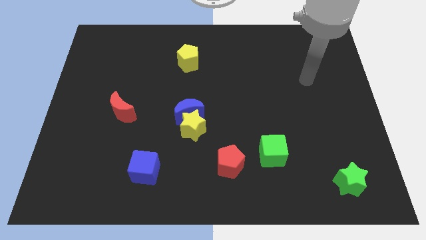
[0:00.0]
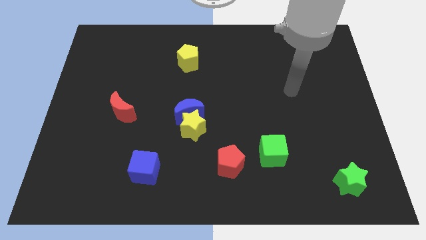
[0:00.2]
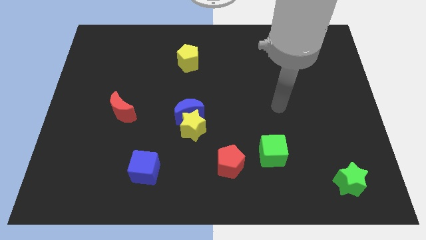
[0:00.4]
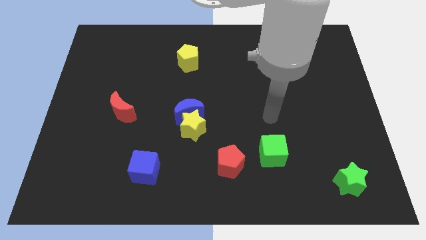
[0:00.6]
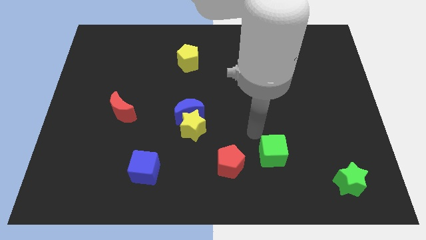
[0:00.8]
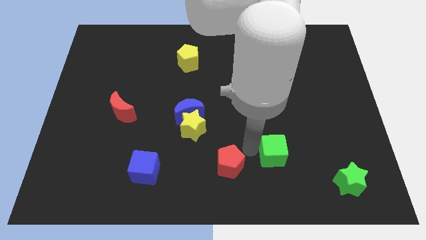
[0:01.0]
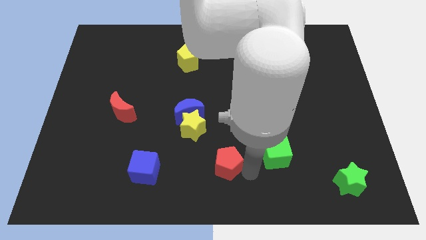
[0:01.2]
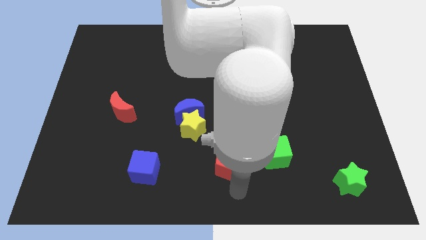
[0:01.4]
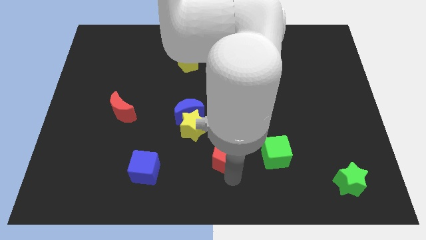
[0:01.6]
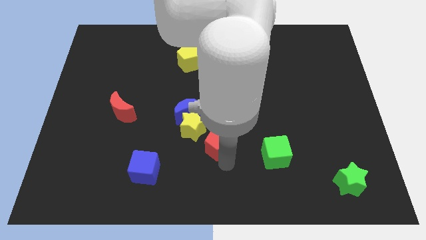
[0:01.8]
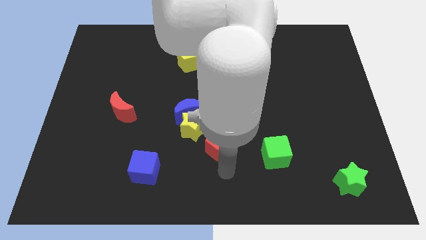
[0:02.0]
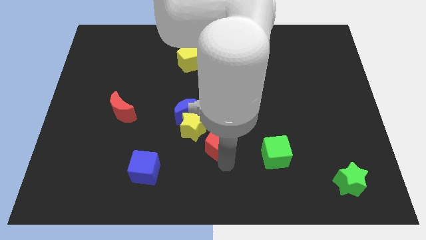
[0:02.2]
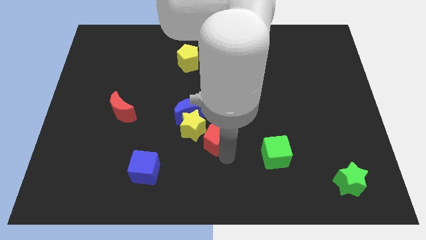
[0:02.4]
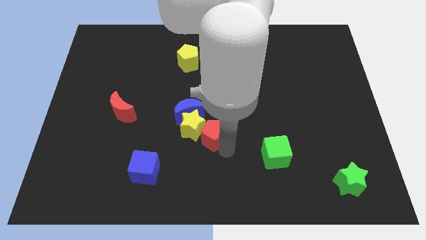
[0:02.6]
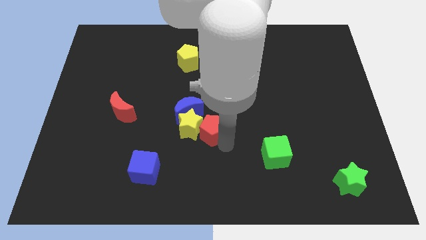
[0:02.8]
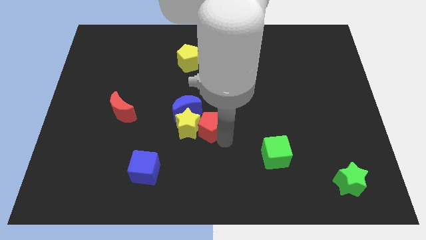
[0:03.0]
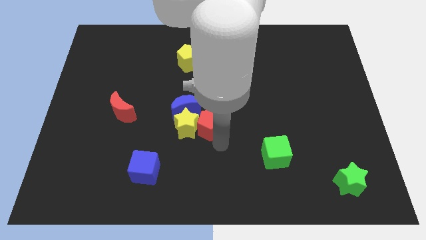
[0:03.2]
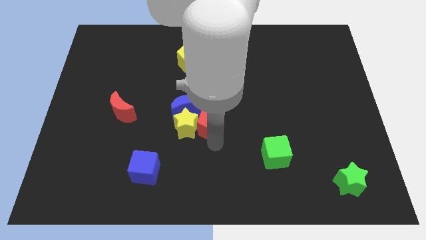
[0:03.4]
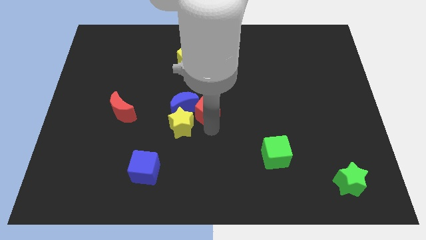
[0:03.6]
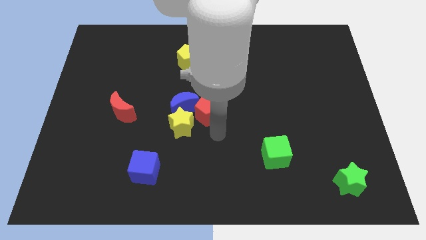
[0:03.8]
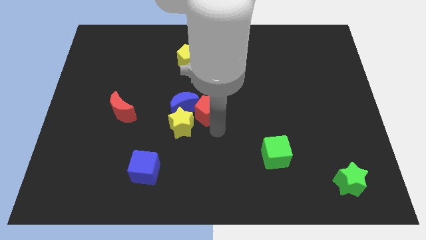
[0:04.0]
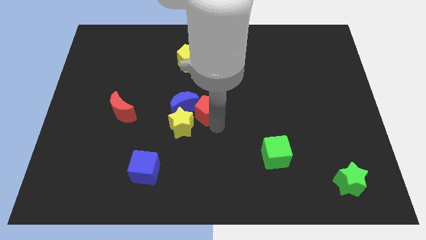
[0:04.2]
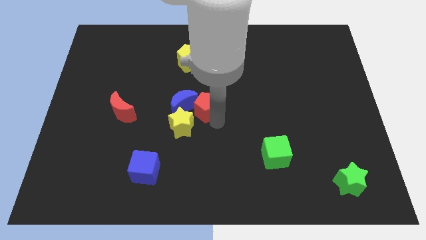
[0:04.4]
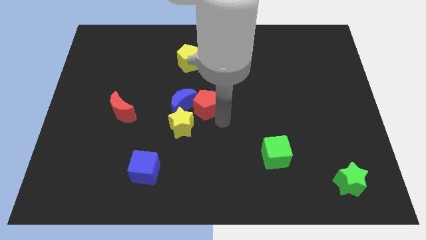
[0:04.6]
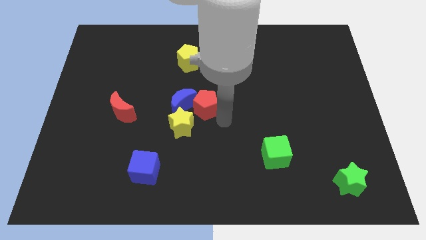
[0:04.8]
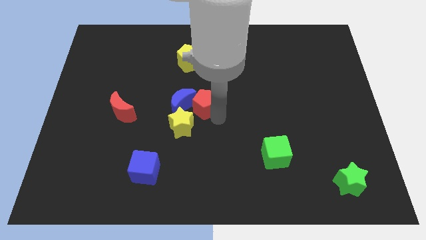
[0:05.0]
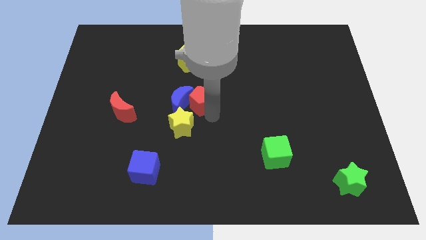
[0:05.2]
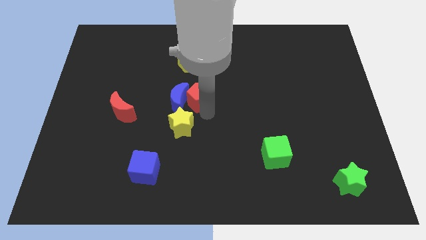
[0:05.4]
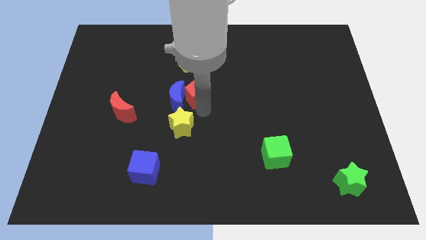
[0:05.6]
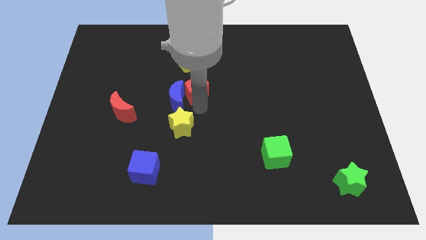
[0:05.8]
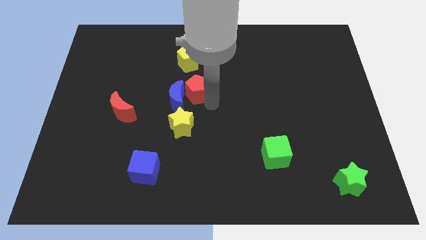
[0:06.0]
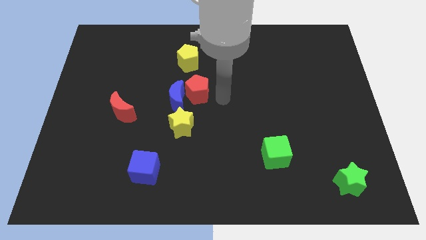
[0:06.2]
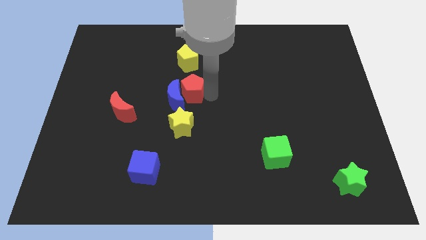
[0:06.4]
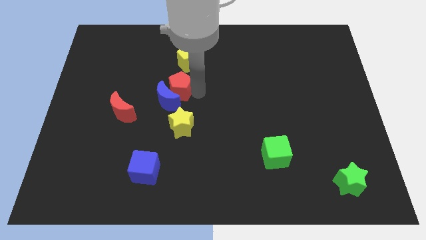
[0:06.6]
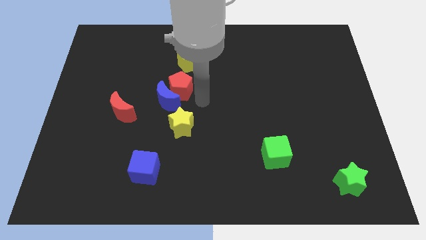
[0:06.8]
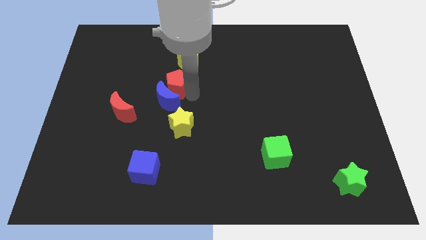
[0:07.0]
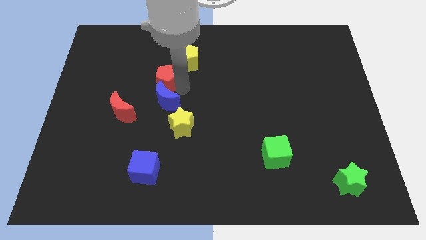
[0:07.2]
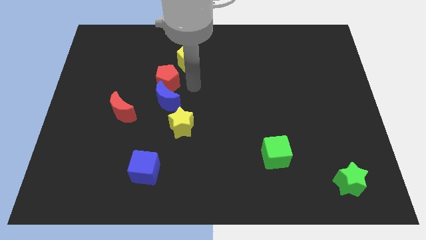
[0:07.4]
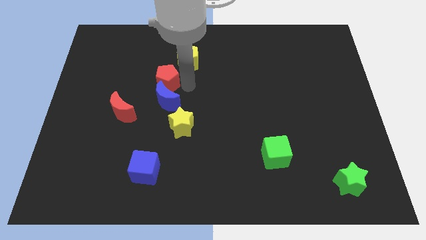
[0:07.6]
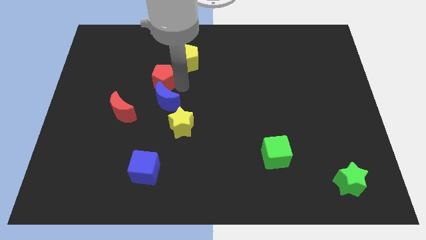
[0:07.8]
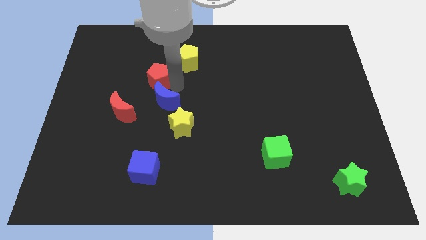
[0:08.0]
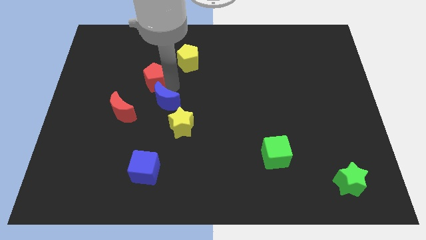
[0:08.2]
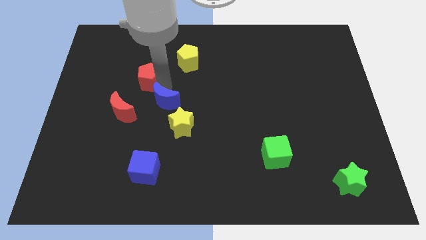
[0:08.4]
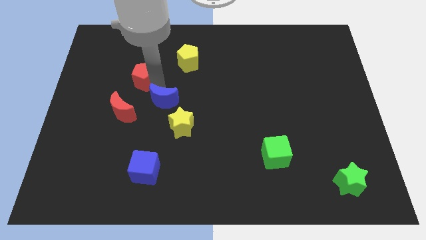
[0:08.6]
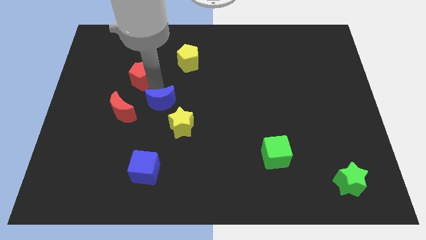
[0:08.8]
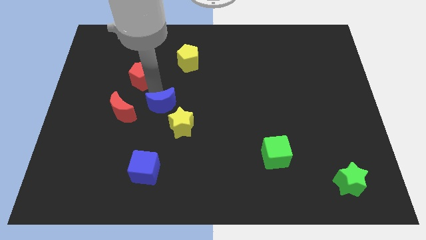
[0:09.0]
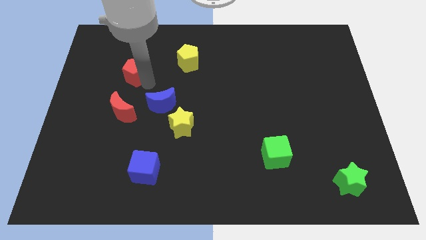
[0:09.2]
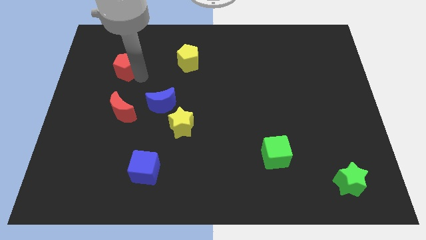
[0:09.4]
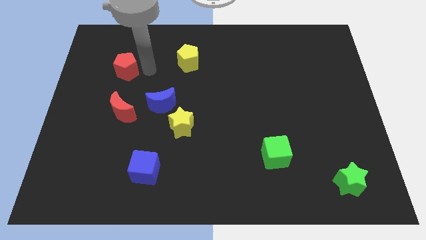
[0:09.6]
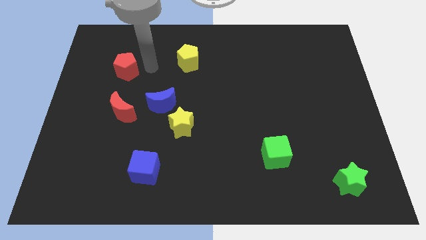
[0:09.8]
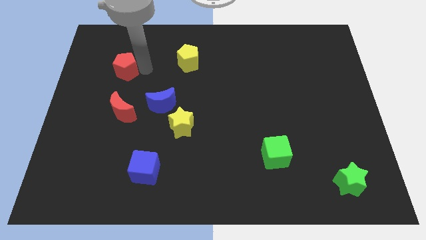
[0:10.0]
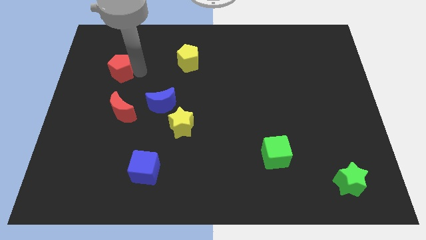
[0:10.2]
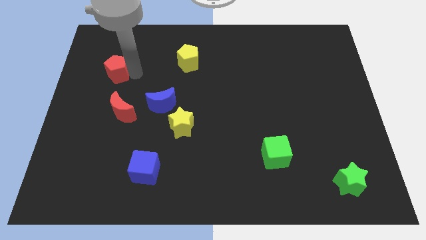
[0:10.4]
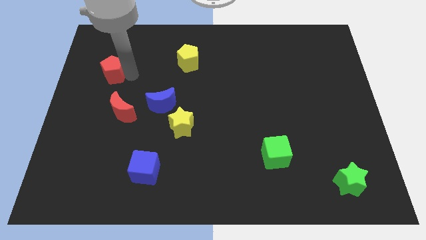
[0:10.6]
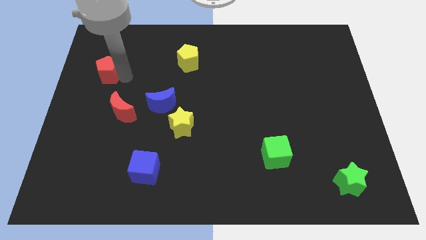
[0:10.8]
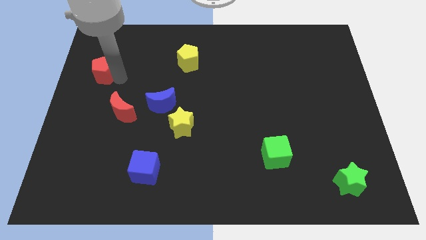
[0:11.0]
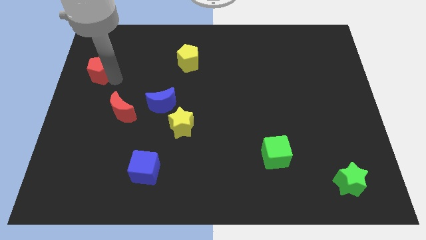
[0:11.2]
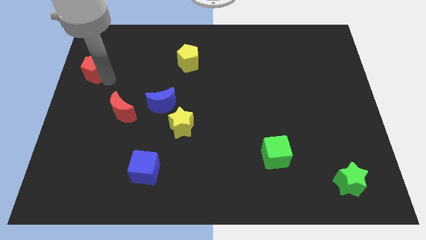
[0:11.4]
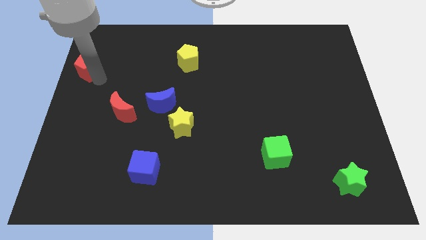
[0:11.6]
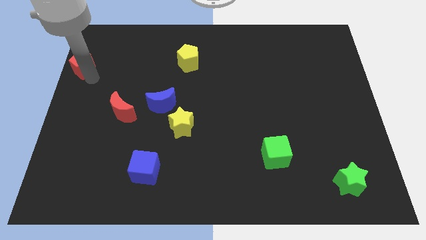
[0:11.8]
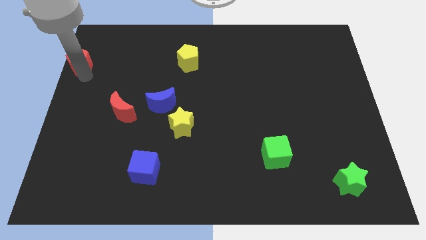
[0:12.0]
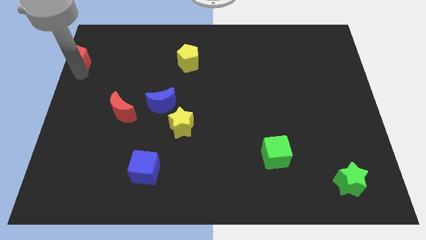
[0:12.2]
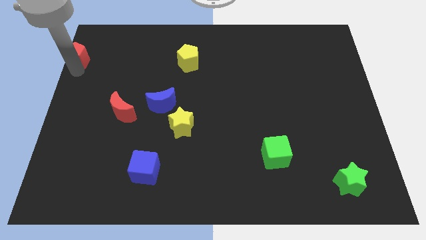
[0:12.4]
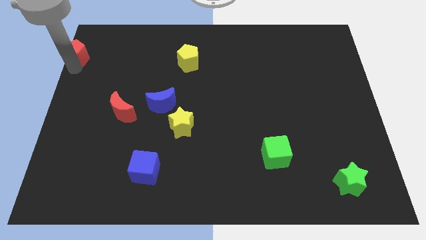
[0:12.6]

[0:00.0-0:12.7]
push the red pentagon to the top left of the board
